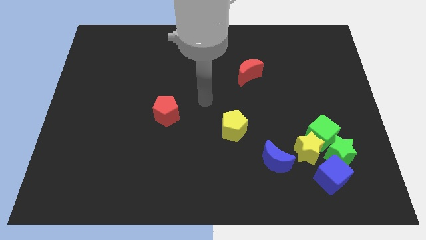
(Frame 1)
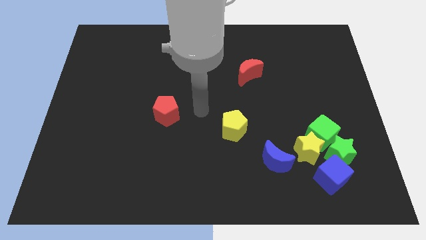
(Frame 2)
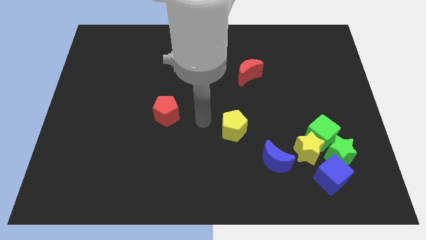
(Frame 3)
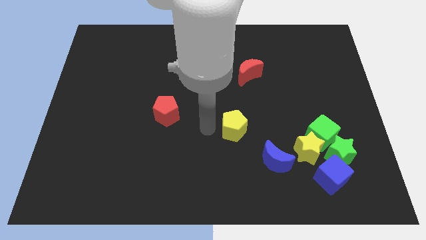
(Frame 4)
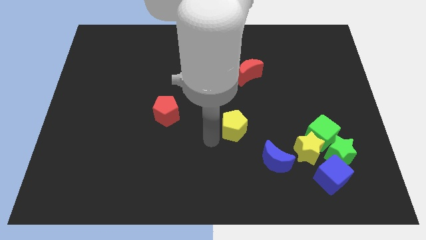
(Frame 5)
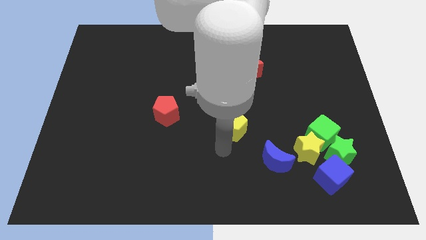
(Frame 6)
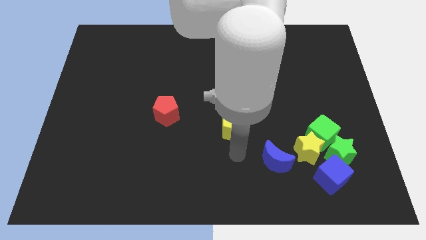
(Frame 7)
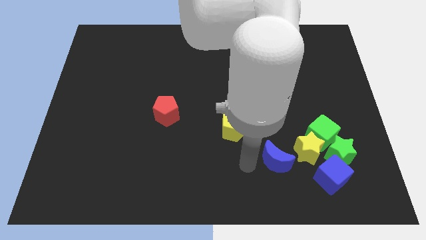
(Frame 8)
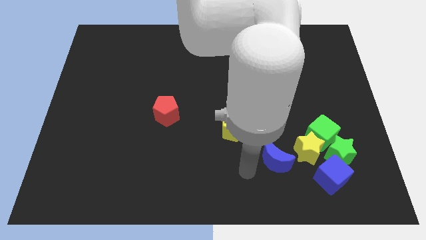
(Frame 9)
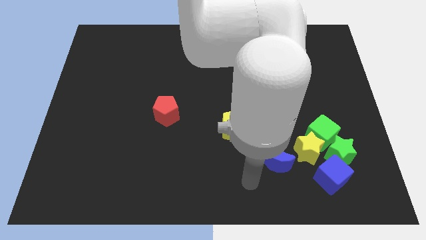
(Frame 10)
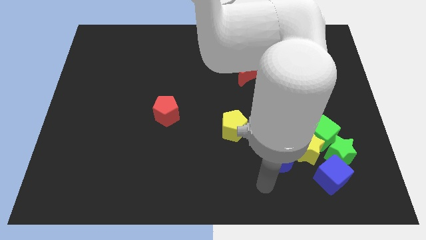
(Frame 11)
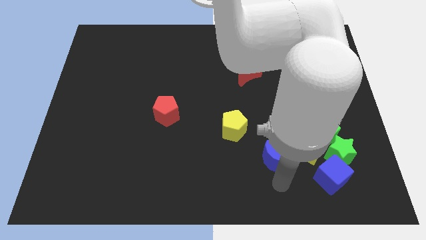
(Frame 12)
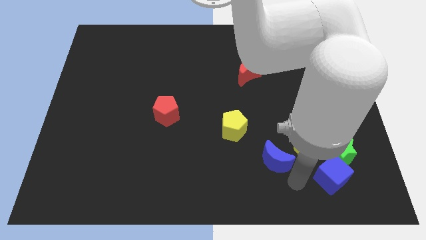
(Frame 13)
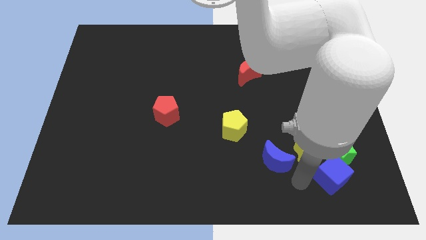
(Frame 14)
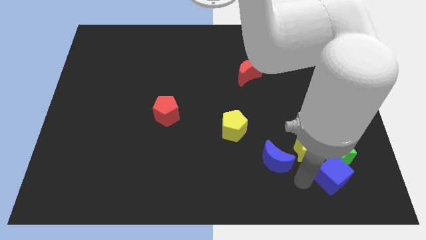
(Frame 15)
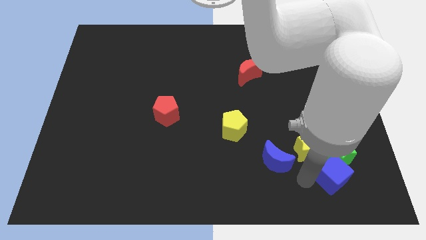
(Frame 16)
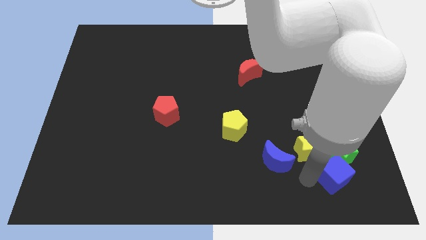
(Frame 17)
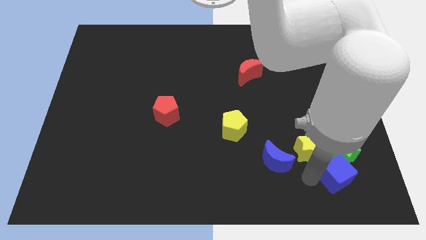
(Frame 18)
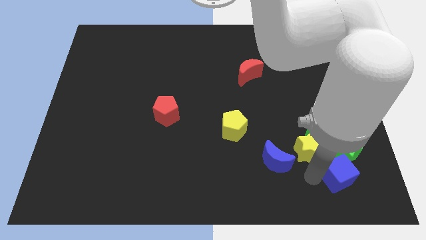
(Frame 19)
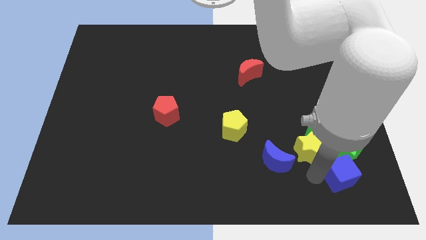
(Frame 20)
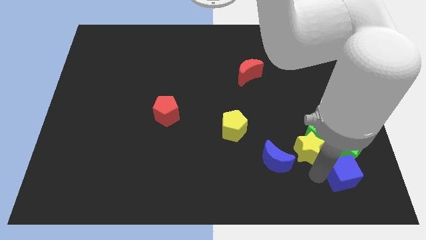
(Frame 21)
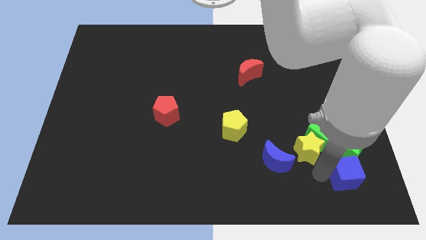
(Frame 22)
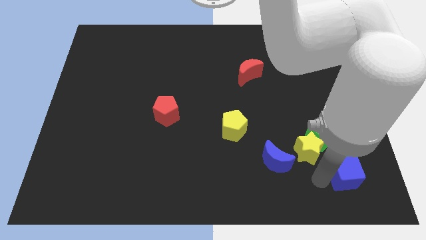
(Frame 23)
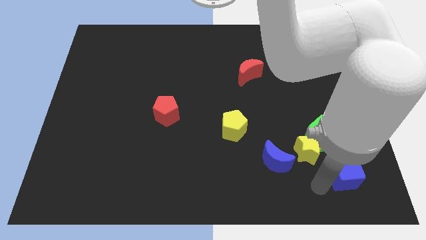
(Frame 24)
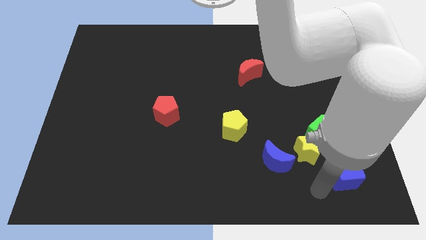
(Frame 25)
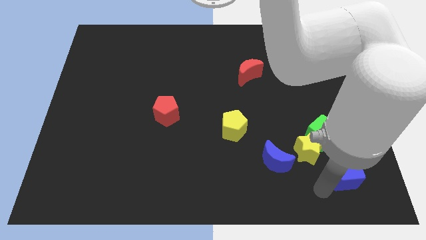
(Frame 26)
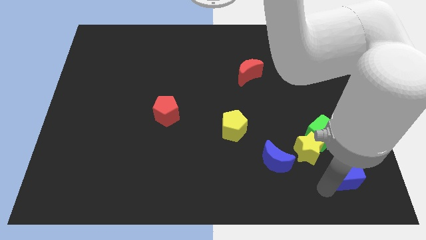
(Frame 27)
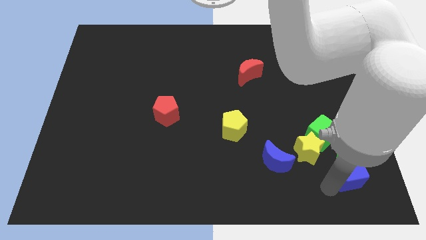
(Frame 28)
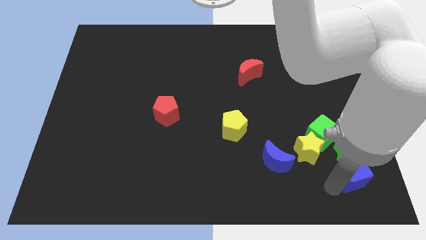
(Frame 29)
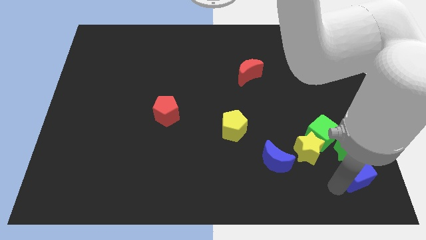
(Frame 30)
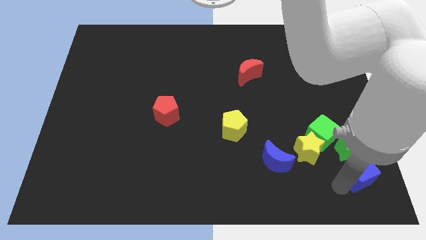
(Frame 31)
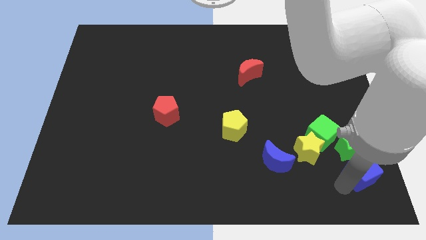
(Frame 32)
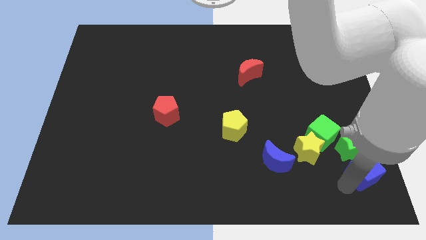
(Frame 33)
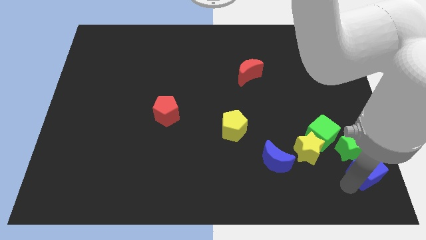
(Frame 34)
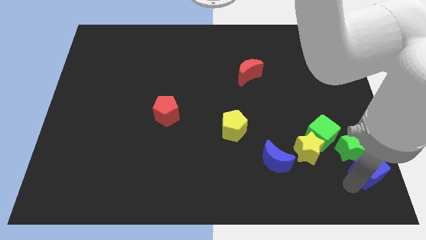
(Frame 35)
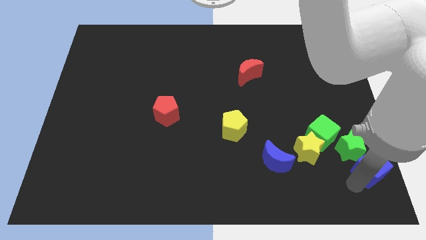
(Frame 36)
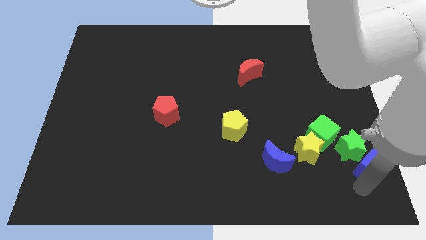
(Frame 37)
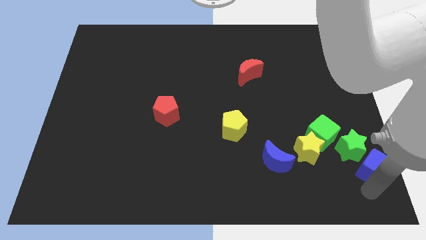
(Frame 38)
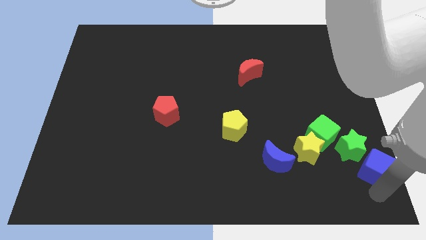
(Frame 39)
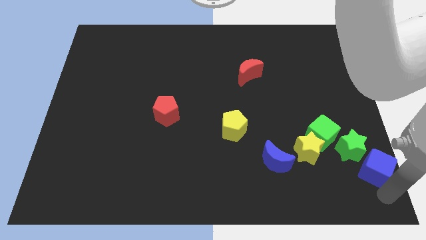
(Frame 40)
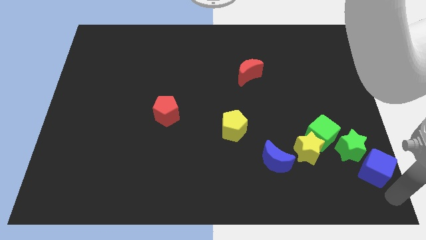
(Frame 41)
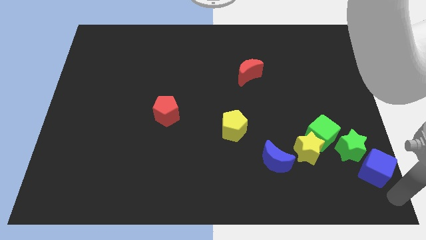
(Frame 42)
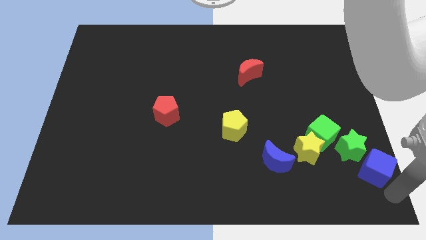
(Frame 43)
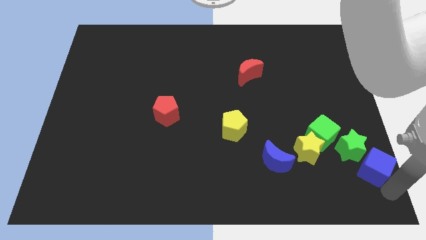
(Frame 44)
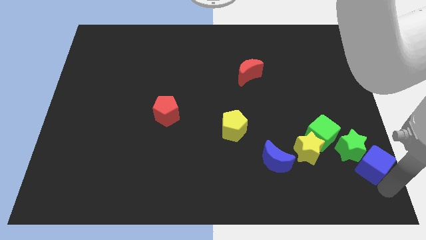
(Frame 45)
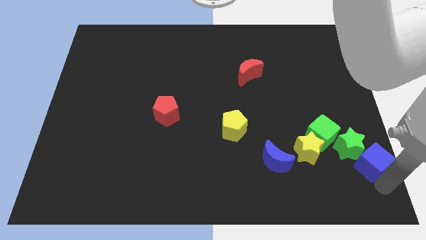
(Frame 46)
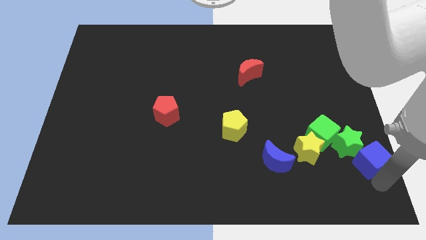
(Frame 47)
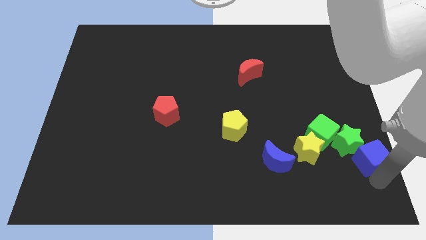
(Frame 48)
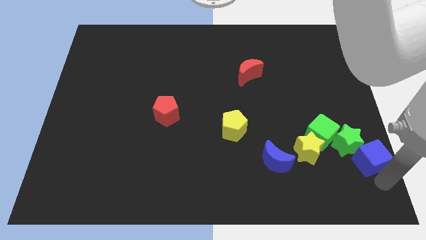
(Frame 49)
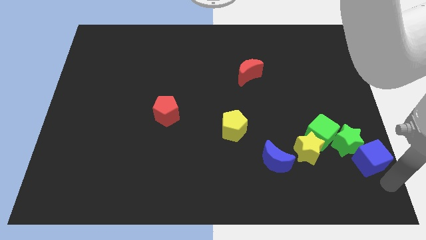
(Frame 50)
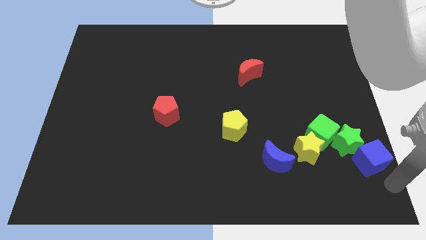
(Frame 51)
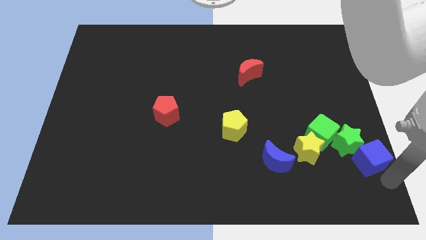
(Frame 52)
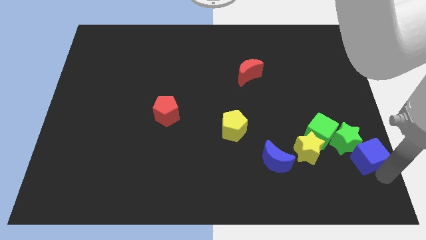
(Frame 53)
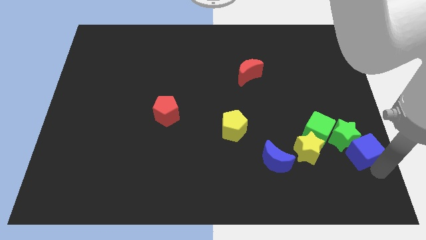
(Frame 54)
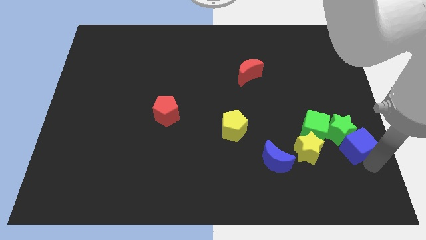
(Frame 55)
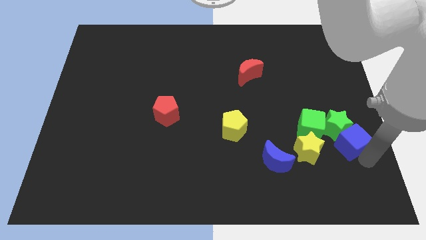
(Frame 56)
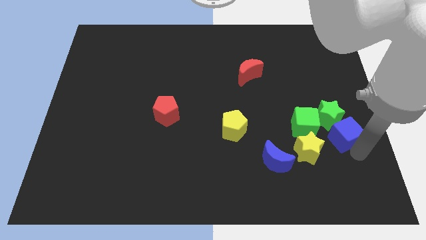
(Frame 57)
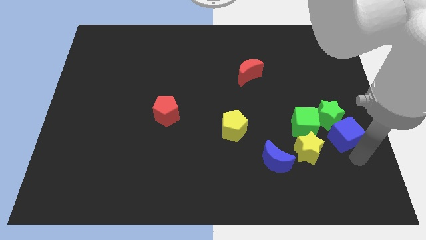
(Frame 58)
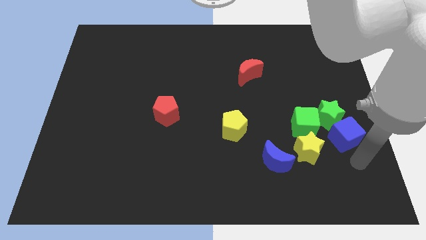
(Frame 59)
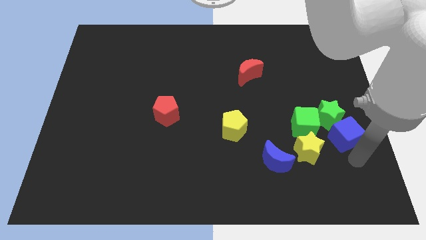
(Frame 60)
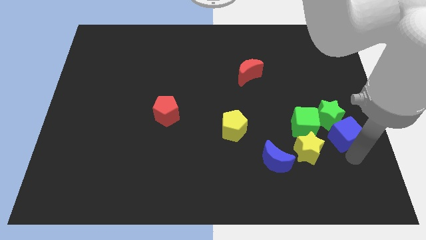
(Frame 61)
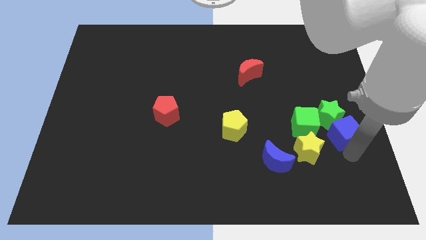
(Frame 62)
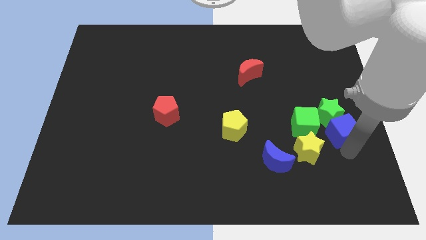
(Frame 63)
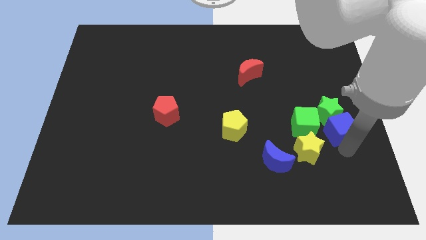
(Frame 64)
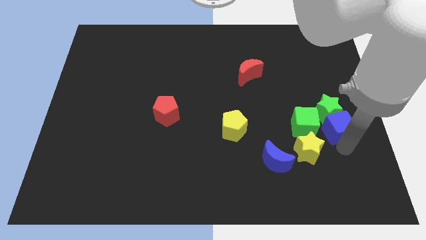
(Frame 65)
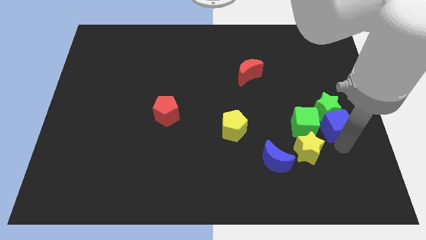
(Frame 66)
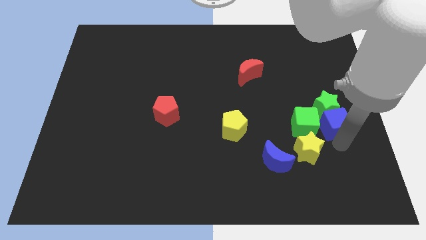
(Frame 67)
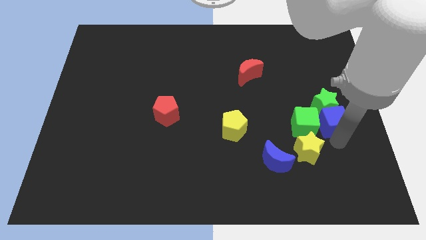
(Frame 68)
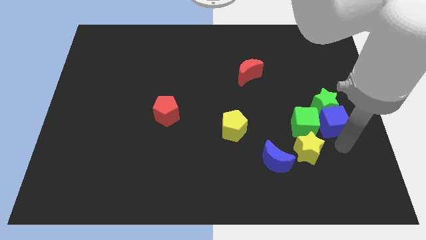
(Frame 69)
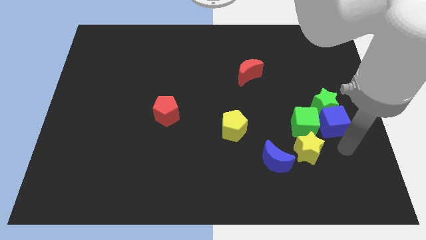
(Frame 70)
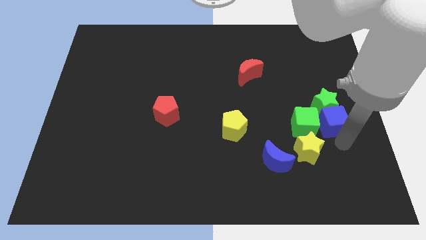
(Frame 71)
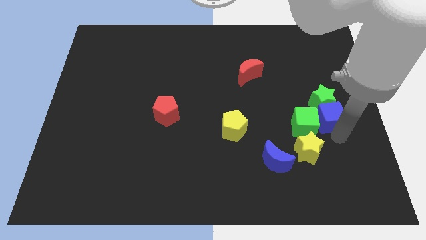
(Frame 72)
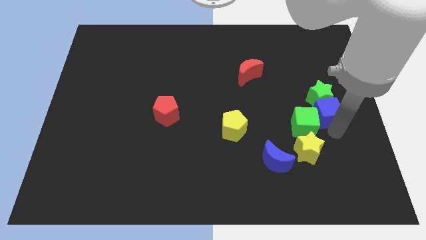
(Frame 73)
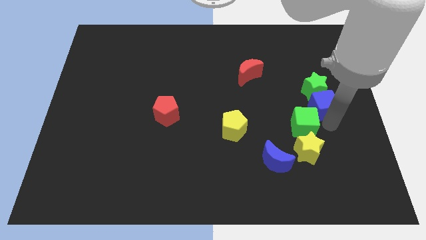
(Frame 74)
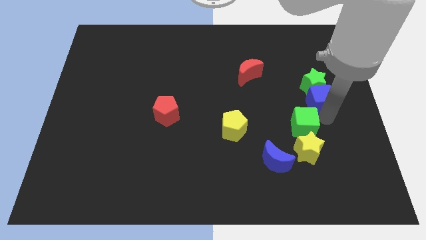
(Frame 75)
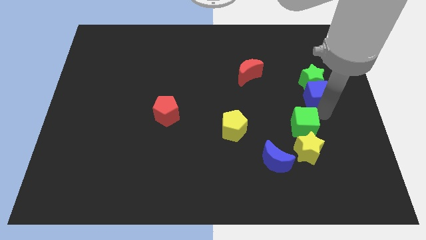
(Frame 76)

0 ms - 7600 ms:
push the blue cube upwards
